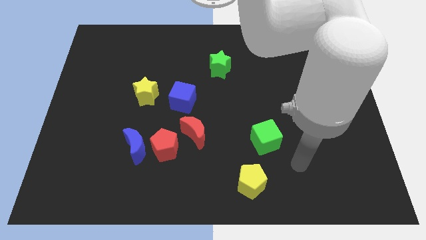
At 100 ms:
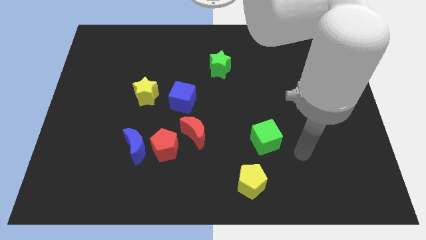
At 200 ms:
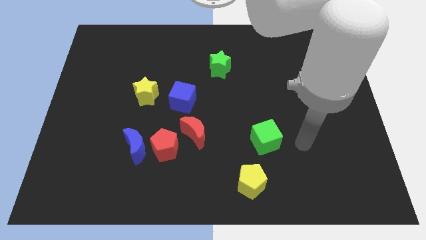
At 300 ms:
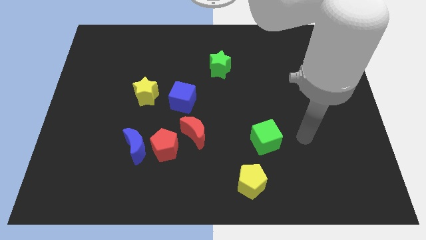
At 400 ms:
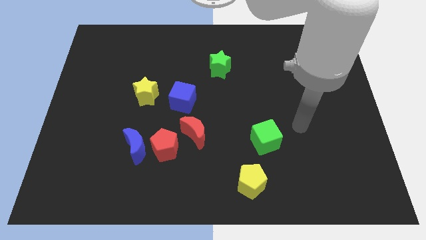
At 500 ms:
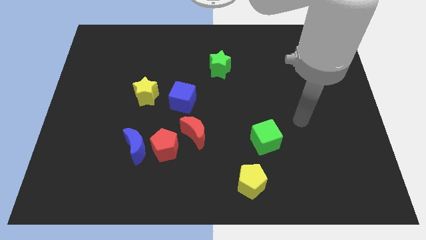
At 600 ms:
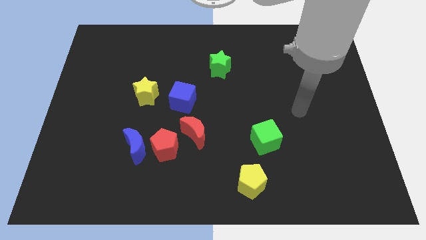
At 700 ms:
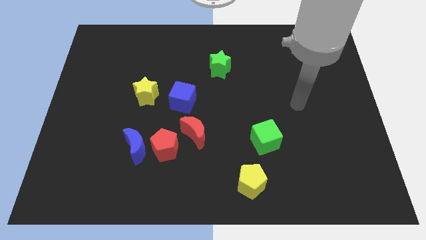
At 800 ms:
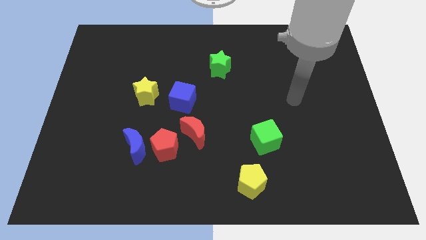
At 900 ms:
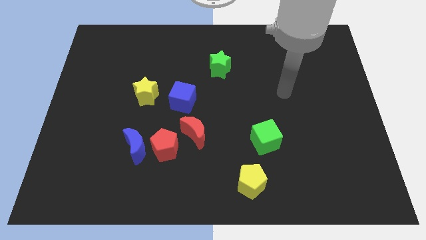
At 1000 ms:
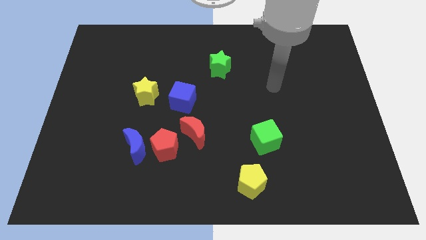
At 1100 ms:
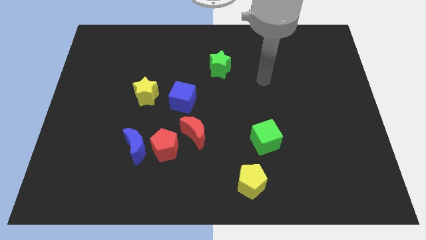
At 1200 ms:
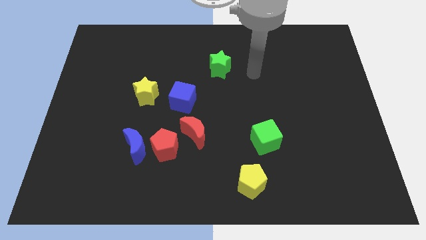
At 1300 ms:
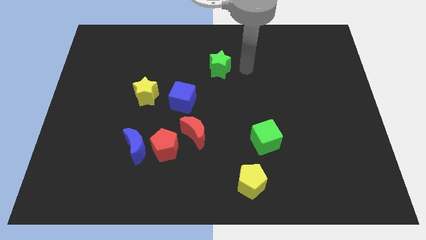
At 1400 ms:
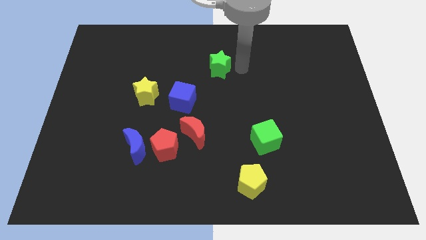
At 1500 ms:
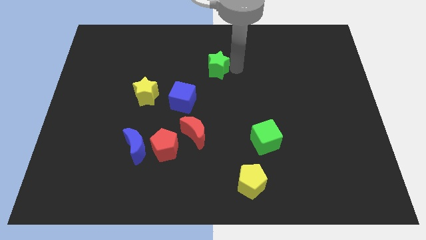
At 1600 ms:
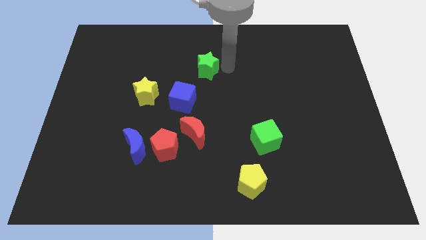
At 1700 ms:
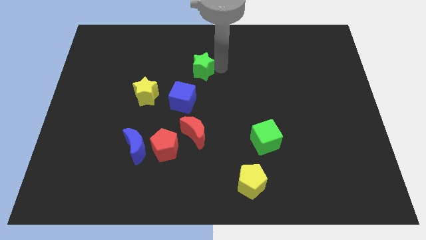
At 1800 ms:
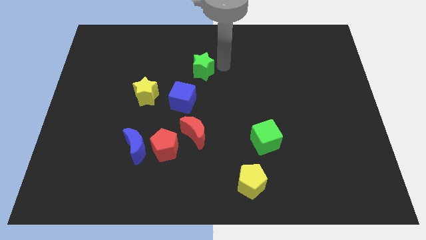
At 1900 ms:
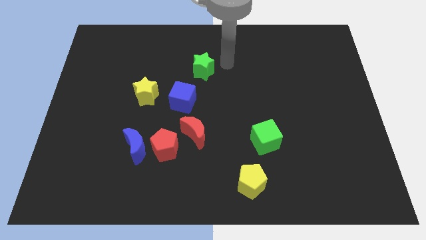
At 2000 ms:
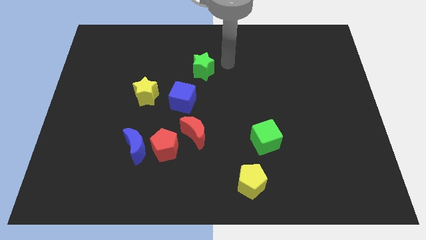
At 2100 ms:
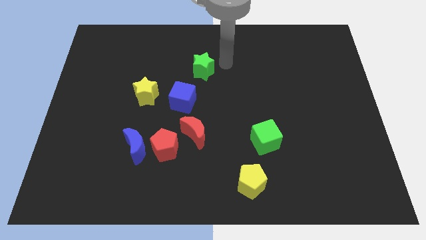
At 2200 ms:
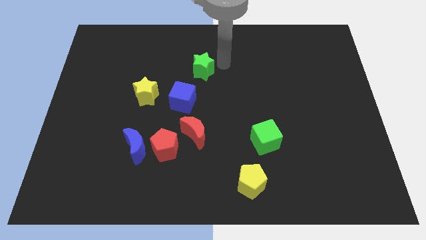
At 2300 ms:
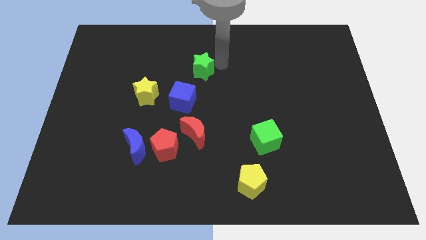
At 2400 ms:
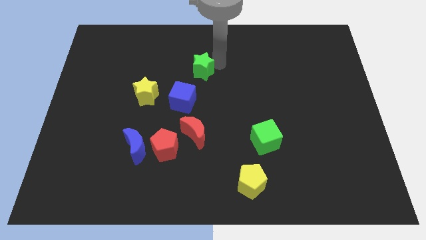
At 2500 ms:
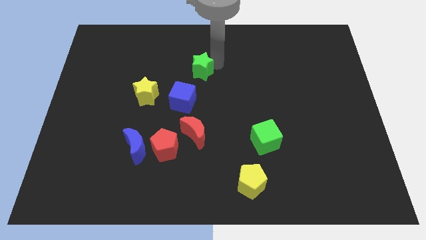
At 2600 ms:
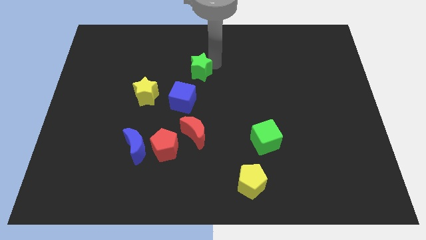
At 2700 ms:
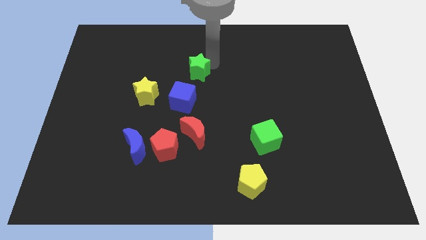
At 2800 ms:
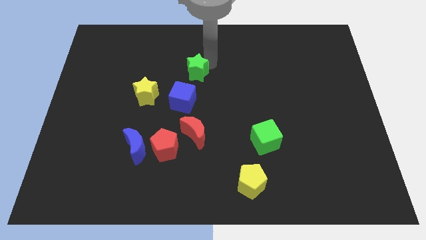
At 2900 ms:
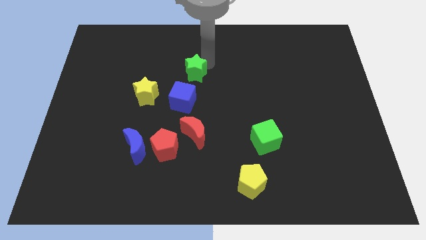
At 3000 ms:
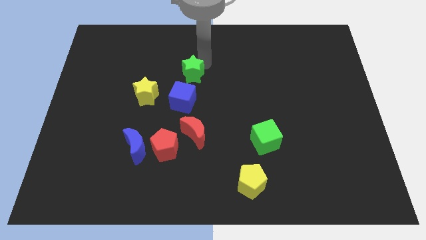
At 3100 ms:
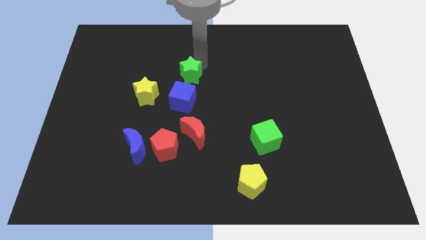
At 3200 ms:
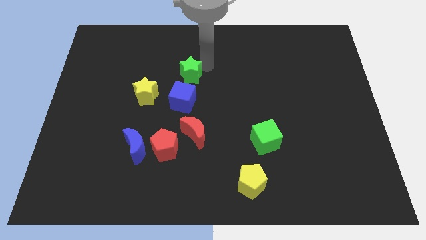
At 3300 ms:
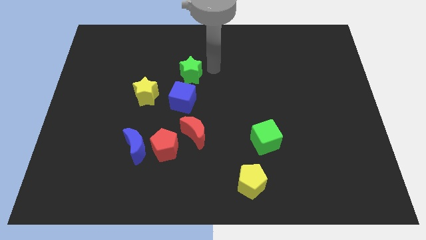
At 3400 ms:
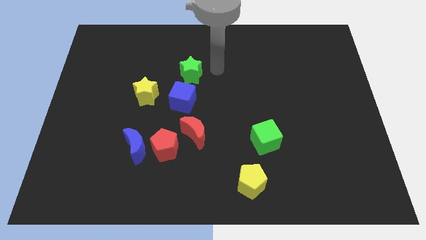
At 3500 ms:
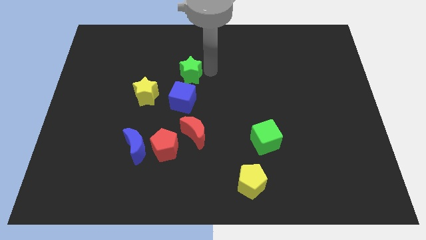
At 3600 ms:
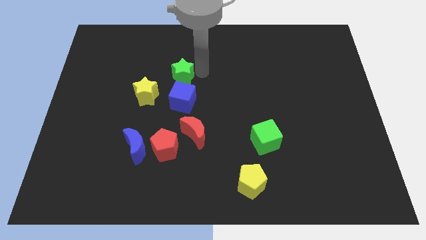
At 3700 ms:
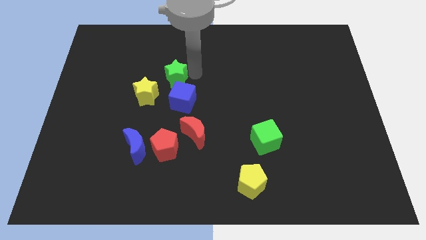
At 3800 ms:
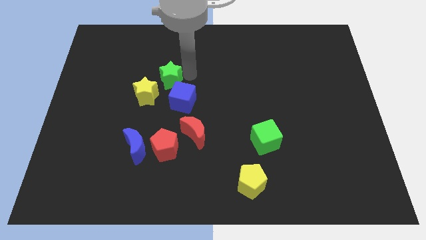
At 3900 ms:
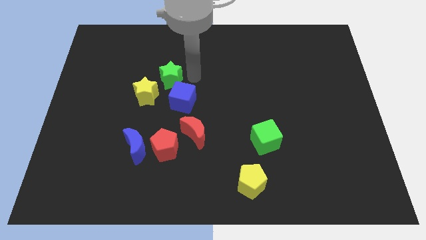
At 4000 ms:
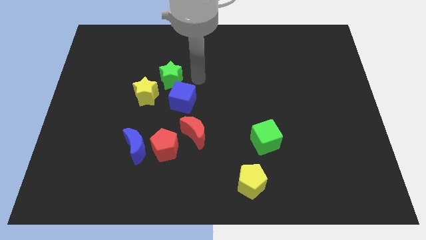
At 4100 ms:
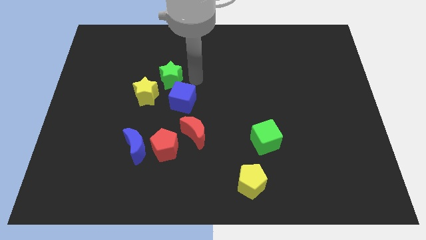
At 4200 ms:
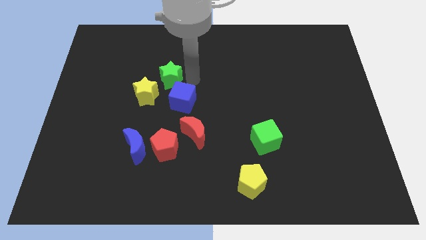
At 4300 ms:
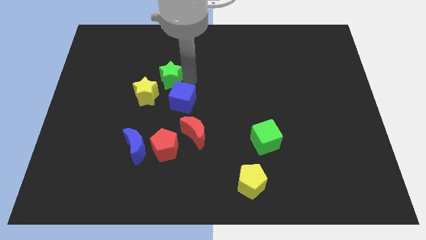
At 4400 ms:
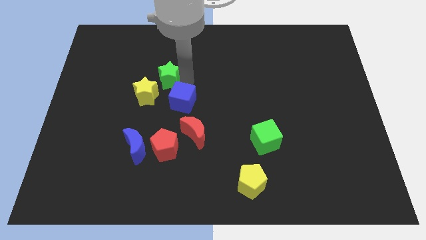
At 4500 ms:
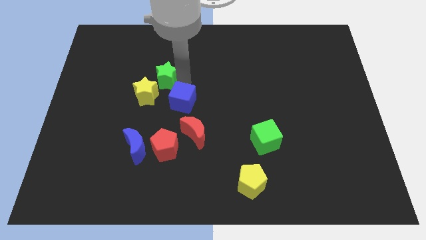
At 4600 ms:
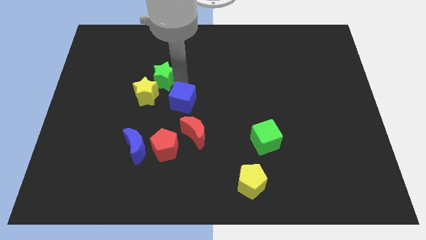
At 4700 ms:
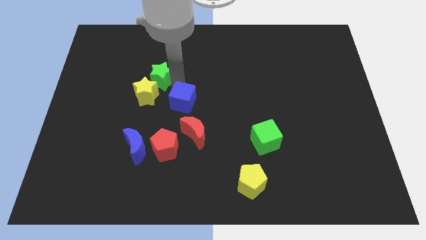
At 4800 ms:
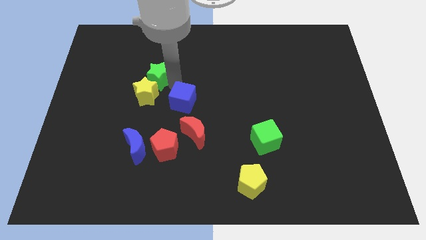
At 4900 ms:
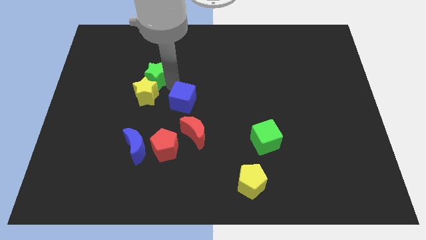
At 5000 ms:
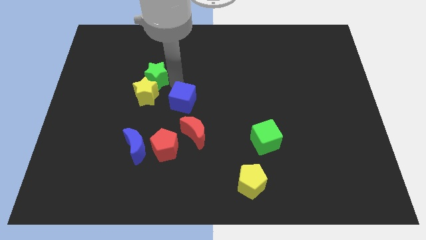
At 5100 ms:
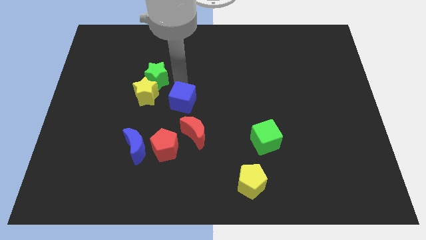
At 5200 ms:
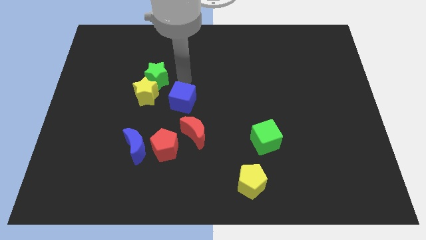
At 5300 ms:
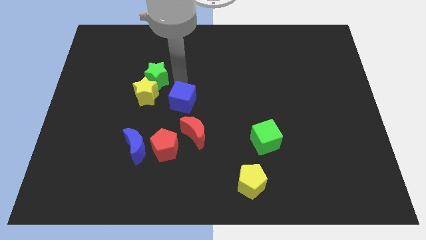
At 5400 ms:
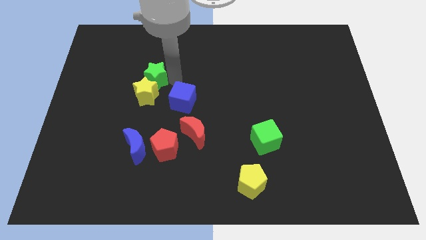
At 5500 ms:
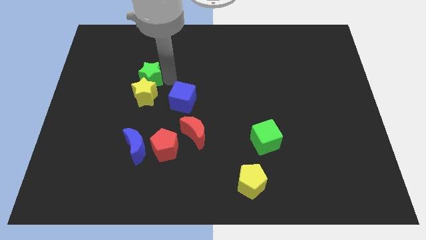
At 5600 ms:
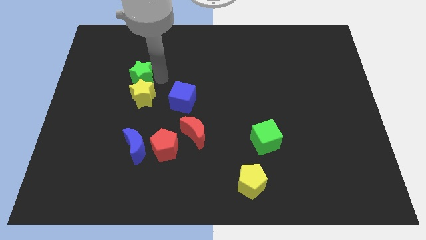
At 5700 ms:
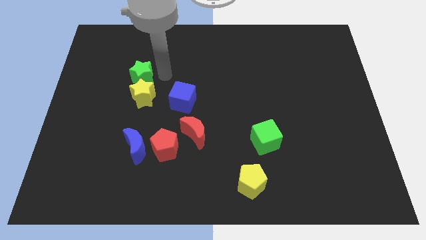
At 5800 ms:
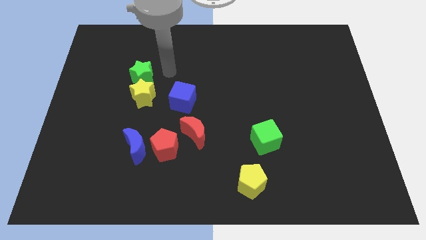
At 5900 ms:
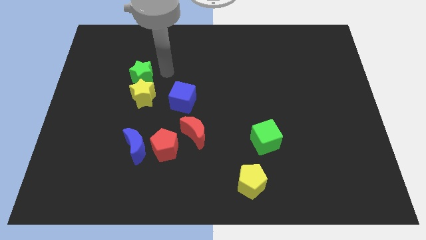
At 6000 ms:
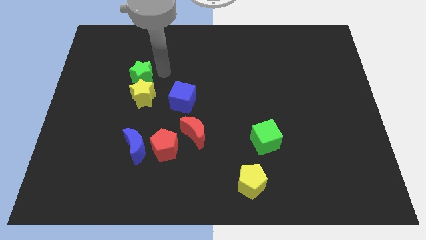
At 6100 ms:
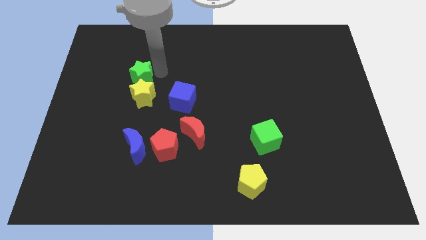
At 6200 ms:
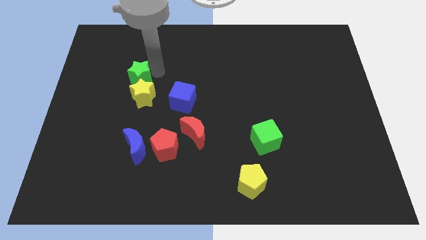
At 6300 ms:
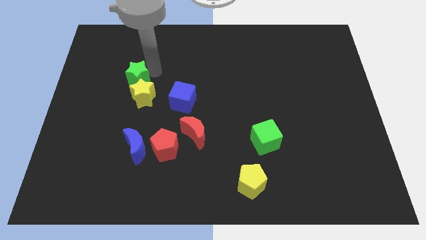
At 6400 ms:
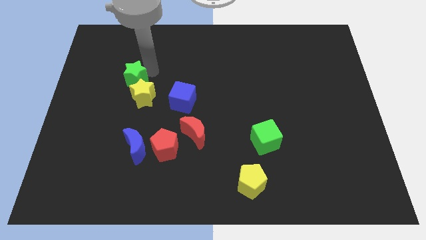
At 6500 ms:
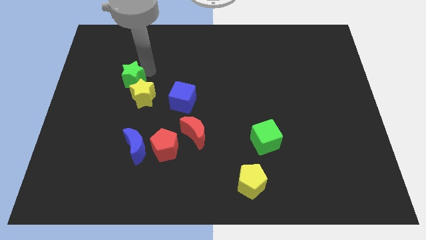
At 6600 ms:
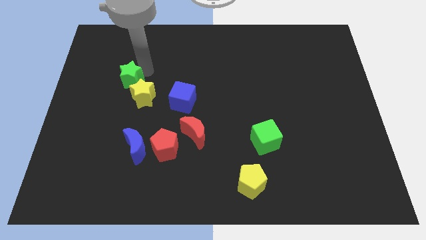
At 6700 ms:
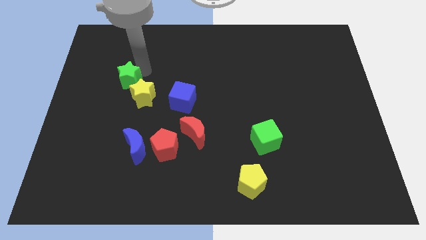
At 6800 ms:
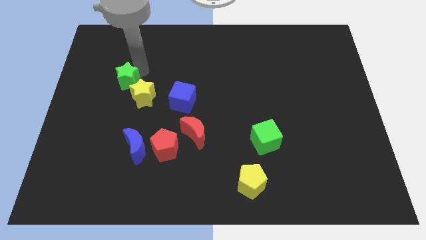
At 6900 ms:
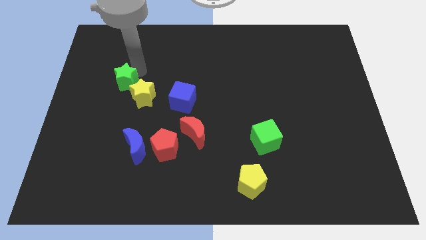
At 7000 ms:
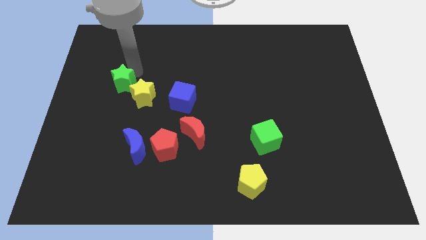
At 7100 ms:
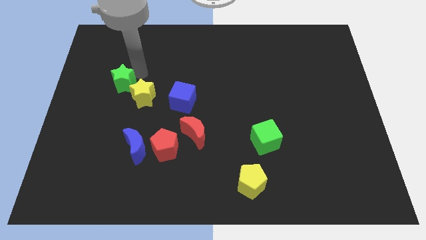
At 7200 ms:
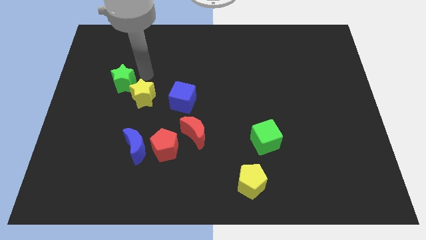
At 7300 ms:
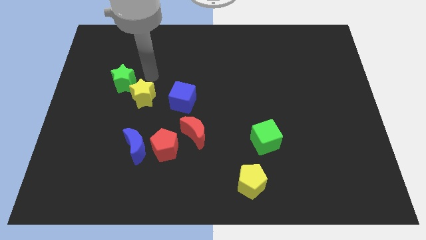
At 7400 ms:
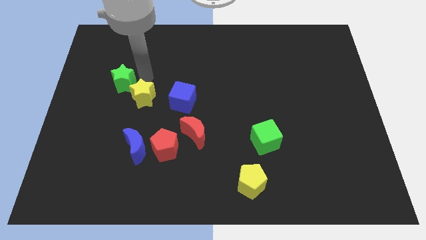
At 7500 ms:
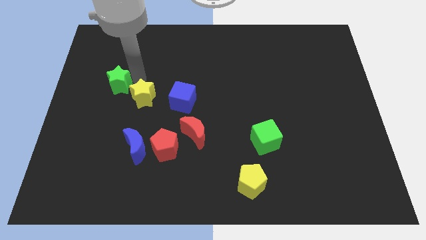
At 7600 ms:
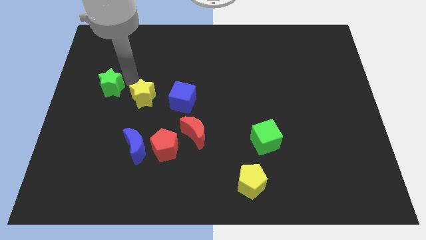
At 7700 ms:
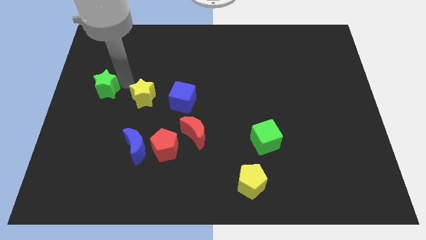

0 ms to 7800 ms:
put the green star to the center left
